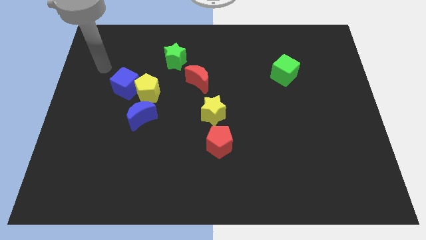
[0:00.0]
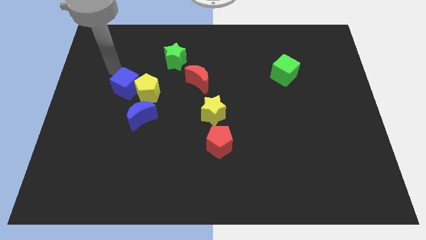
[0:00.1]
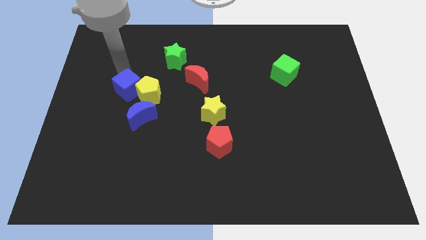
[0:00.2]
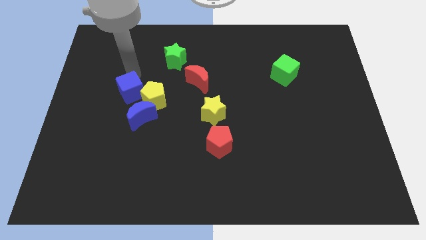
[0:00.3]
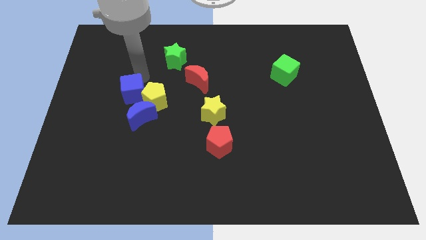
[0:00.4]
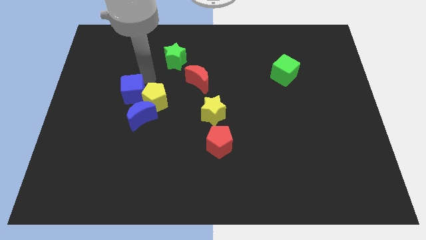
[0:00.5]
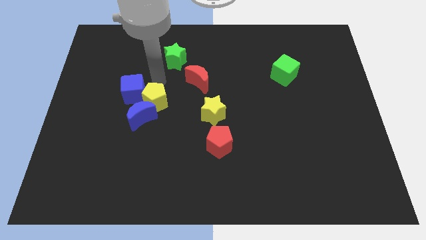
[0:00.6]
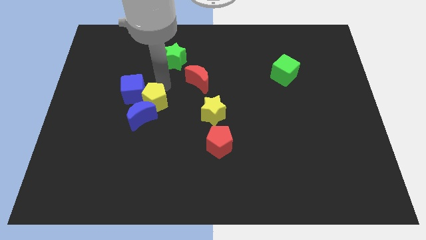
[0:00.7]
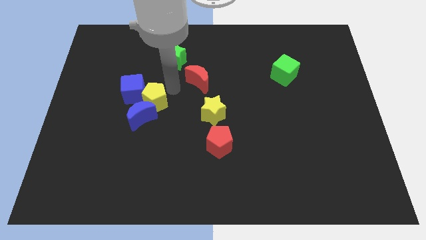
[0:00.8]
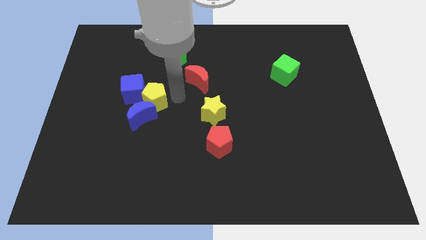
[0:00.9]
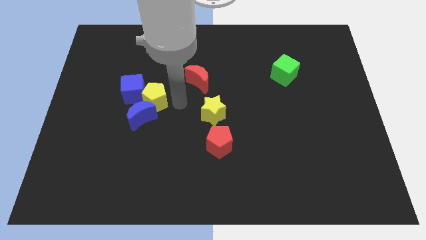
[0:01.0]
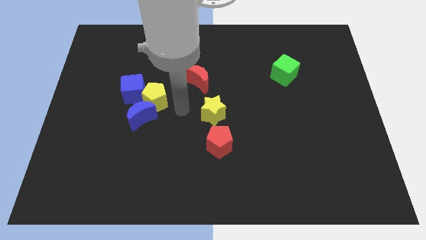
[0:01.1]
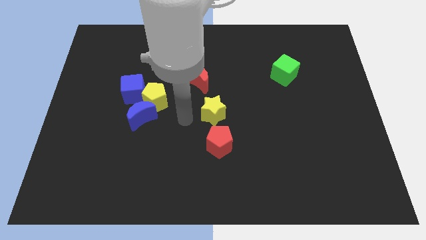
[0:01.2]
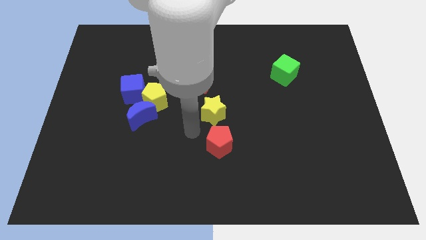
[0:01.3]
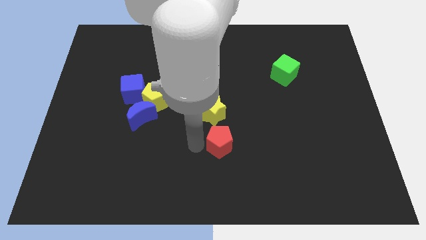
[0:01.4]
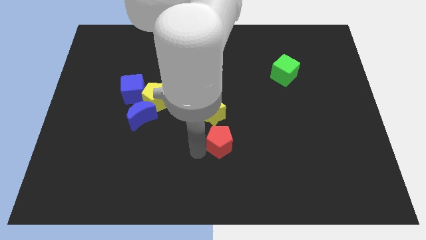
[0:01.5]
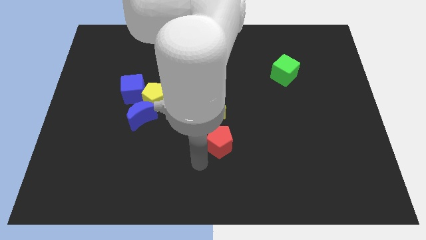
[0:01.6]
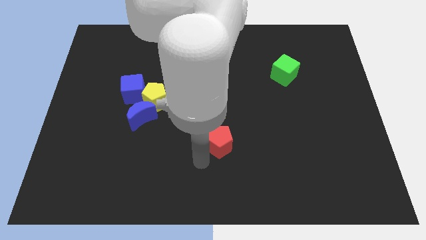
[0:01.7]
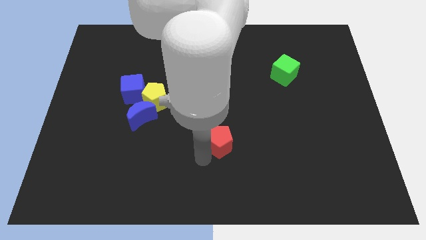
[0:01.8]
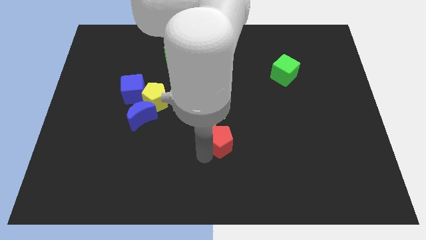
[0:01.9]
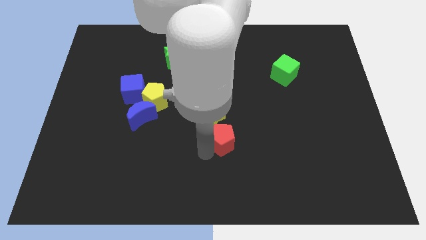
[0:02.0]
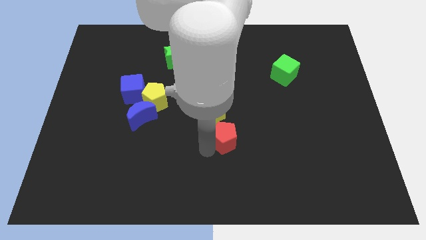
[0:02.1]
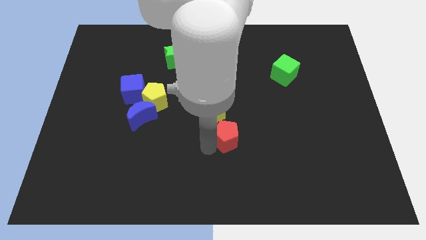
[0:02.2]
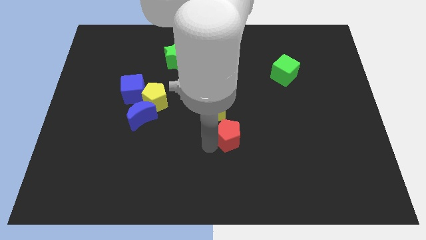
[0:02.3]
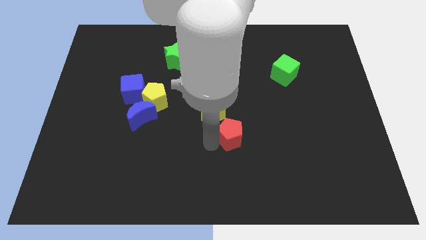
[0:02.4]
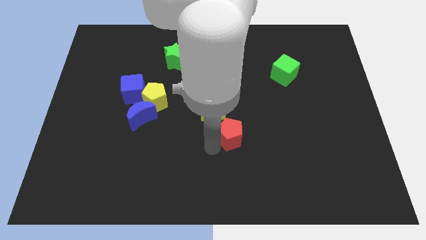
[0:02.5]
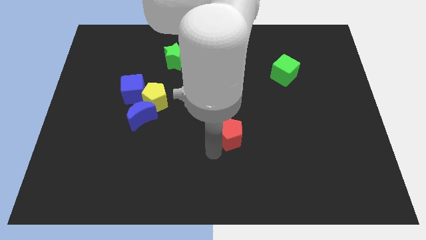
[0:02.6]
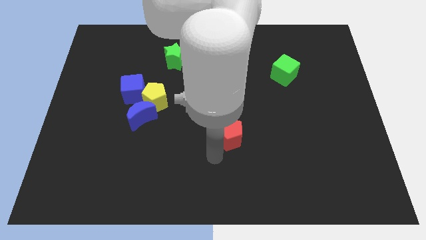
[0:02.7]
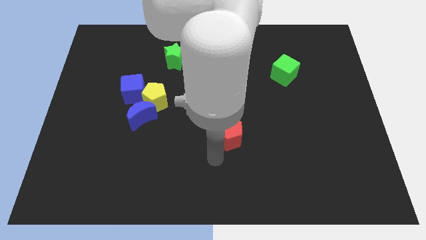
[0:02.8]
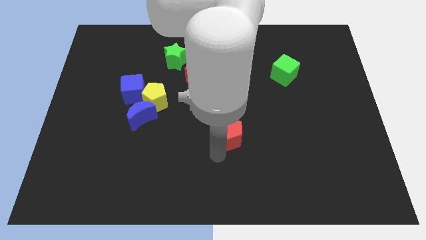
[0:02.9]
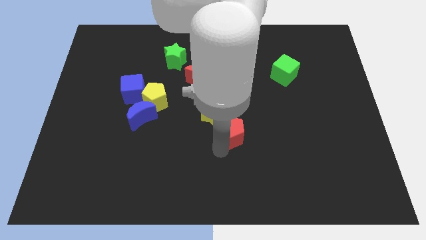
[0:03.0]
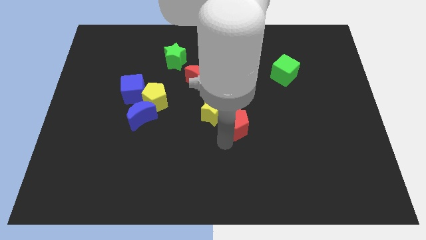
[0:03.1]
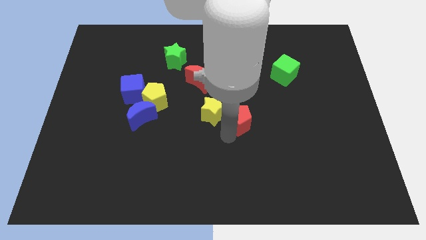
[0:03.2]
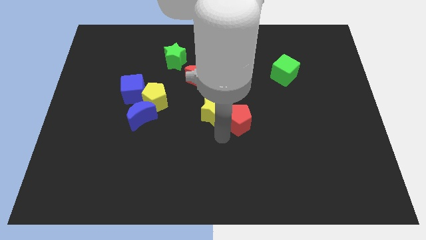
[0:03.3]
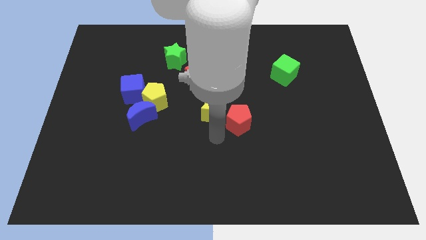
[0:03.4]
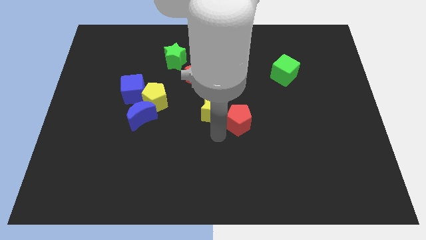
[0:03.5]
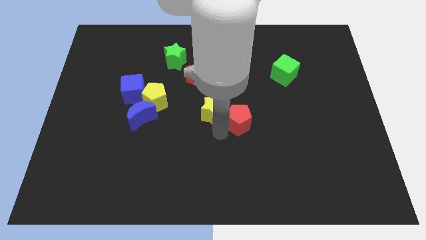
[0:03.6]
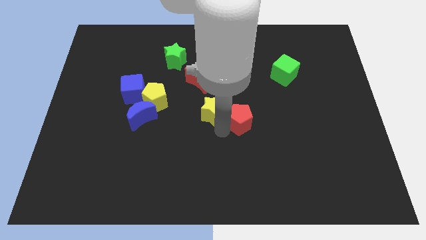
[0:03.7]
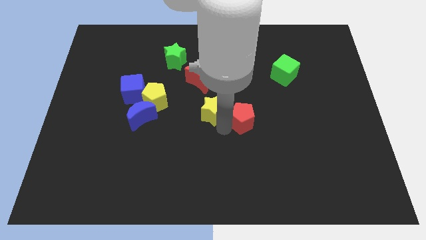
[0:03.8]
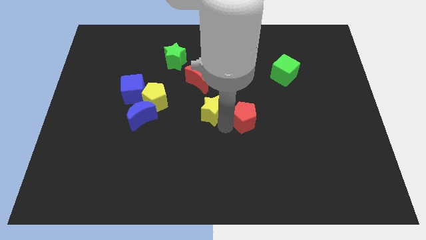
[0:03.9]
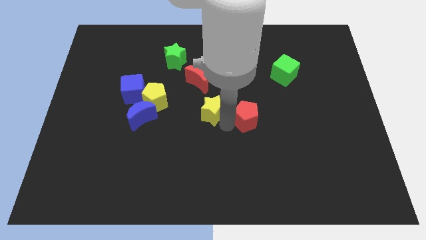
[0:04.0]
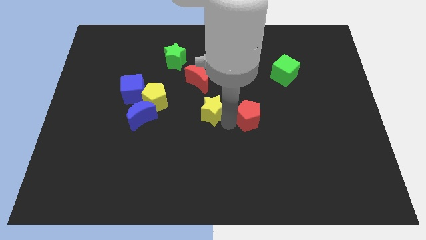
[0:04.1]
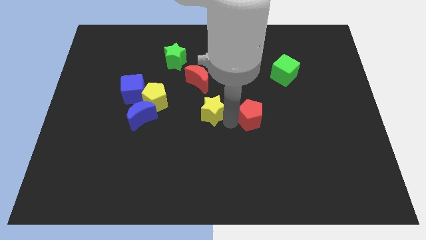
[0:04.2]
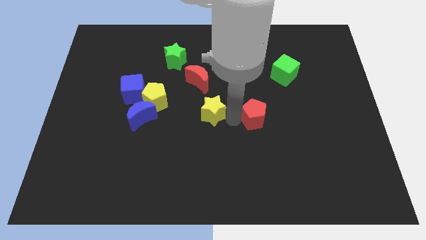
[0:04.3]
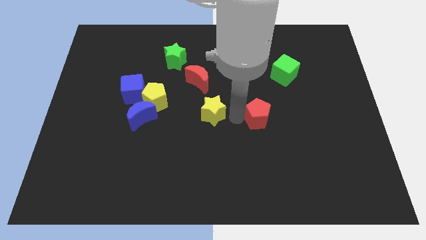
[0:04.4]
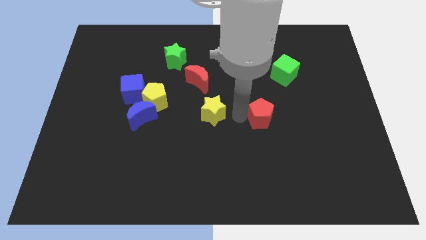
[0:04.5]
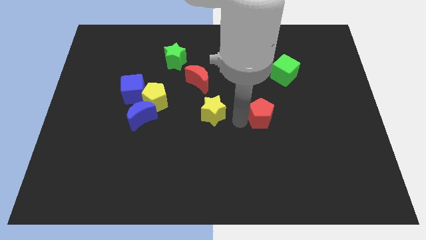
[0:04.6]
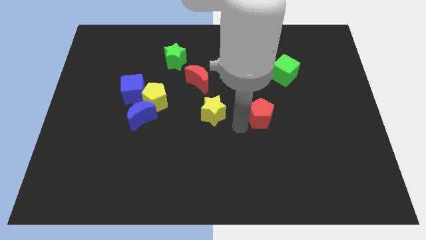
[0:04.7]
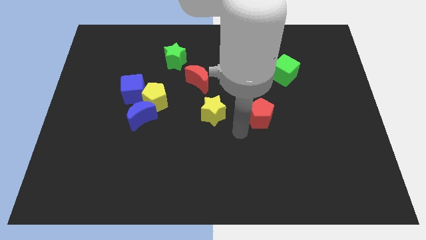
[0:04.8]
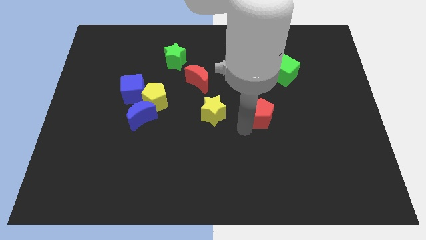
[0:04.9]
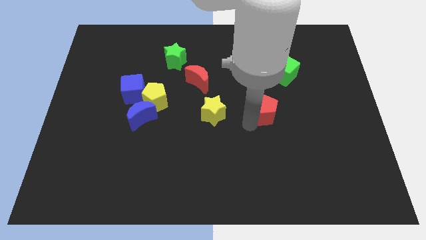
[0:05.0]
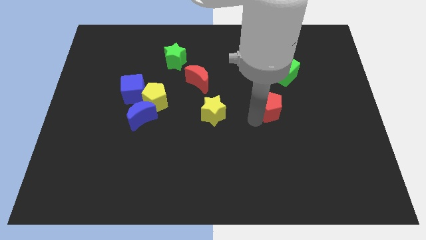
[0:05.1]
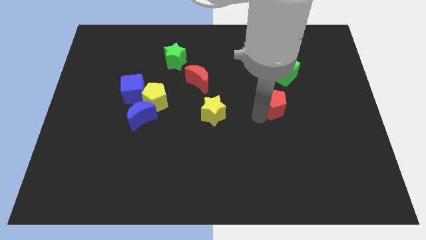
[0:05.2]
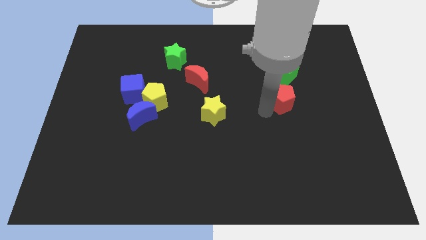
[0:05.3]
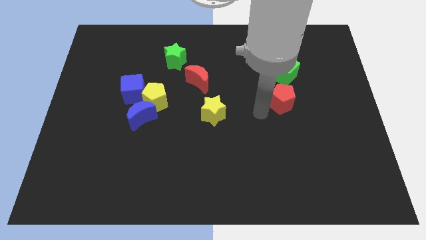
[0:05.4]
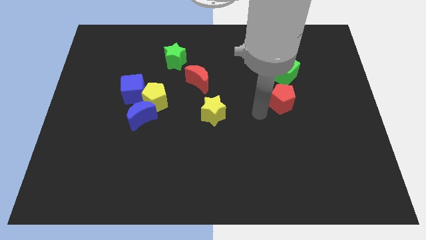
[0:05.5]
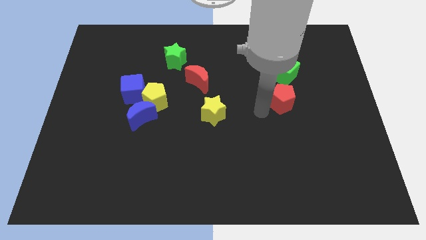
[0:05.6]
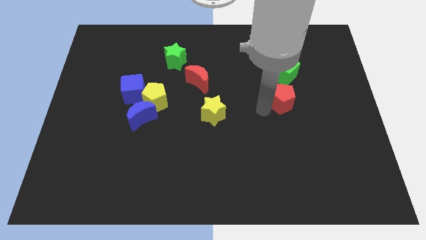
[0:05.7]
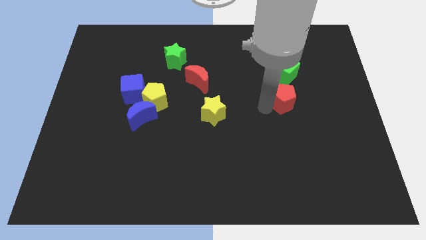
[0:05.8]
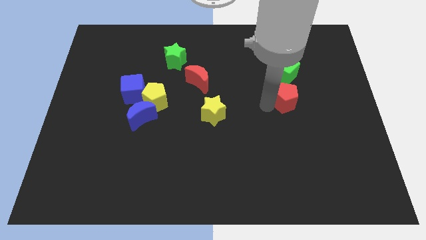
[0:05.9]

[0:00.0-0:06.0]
push the red pentagon diagonally up and to the right

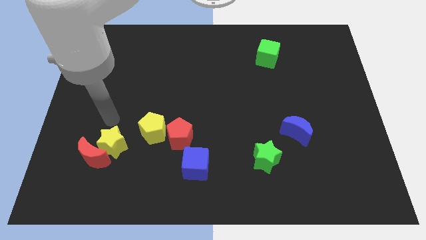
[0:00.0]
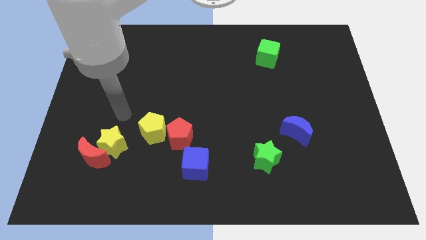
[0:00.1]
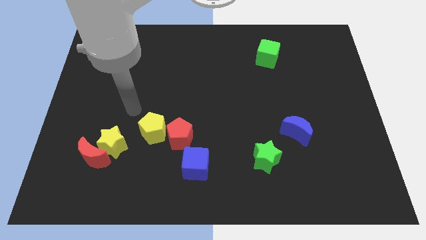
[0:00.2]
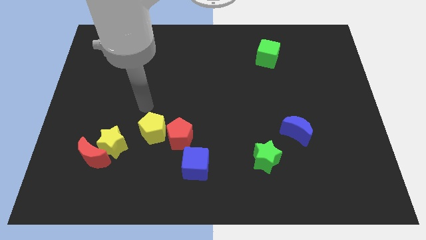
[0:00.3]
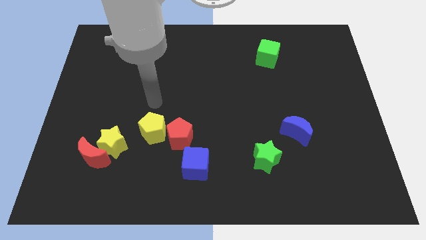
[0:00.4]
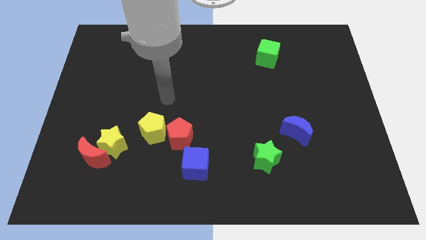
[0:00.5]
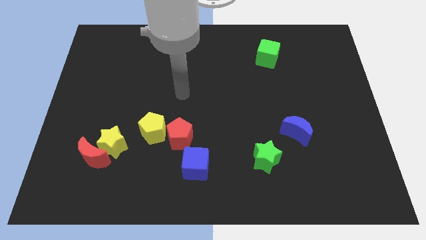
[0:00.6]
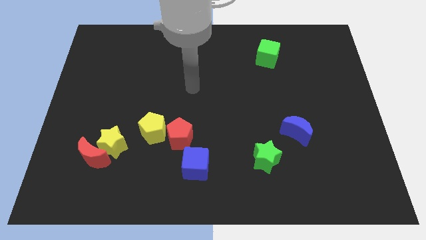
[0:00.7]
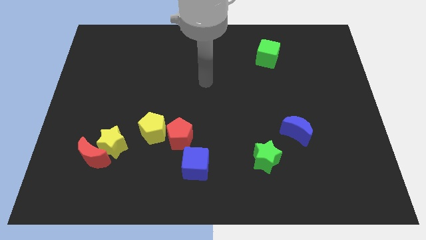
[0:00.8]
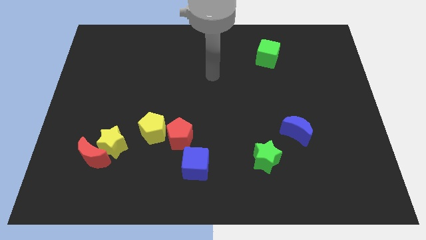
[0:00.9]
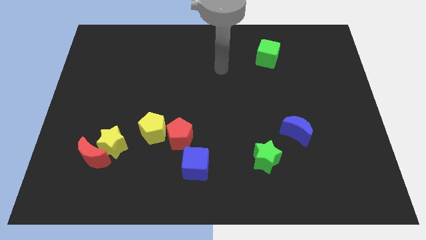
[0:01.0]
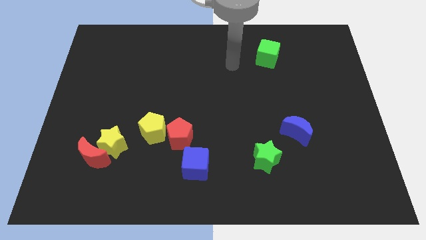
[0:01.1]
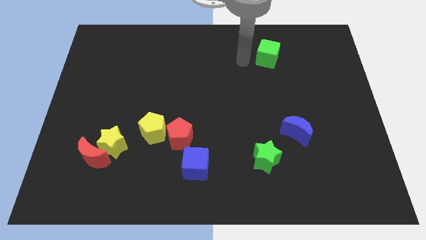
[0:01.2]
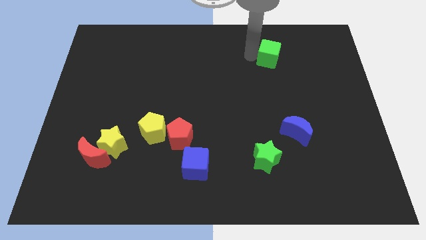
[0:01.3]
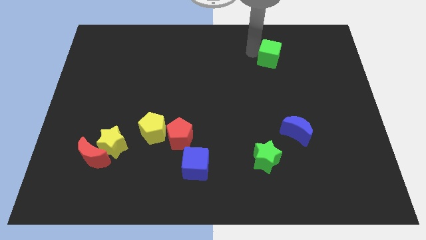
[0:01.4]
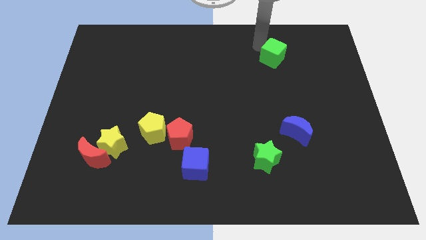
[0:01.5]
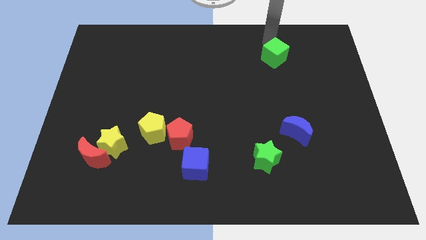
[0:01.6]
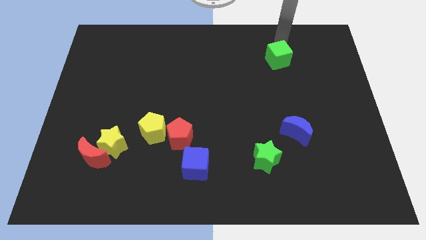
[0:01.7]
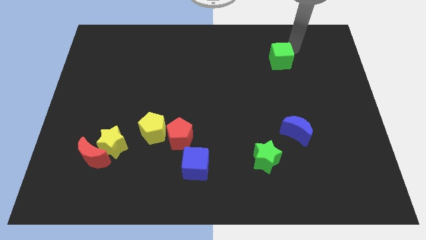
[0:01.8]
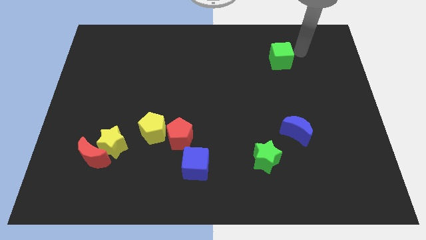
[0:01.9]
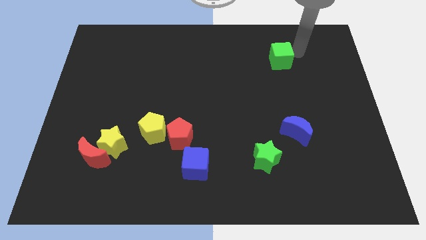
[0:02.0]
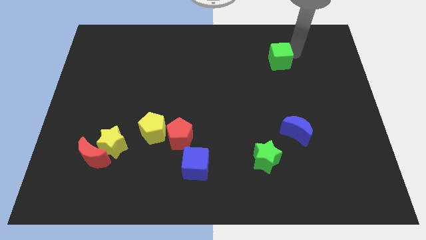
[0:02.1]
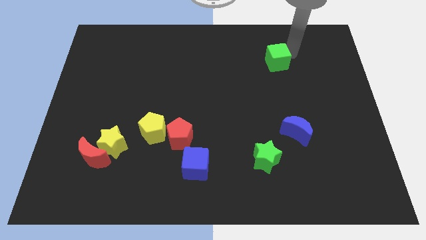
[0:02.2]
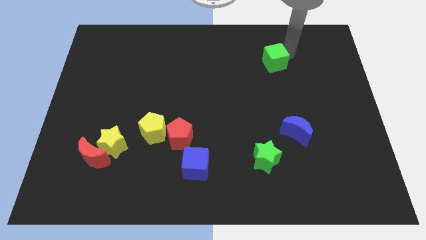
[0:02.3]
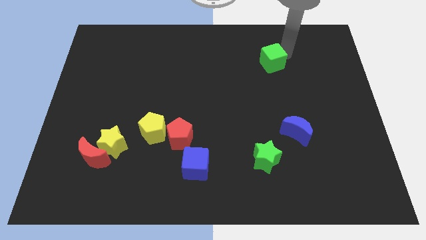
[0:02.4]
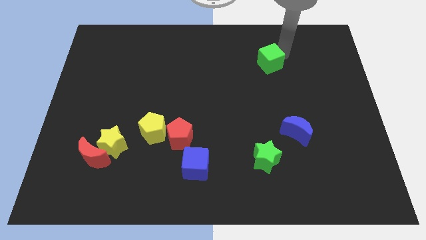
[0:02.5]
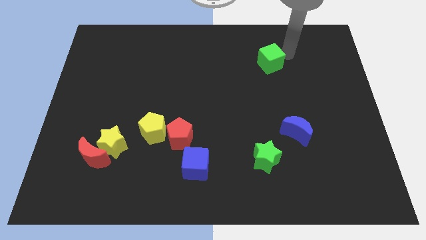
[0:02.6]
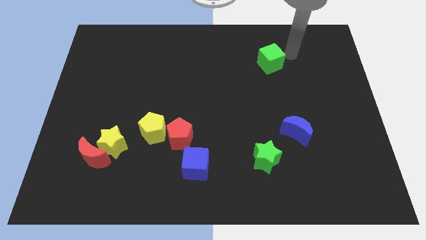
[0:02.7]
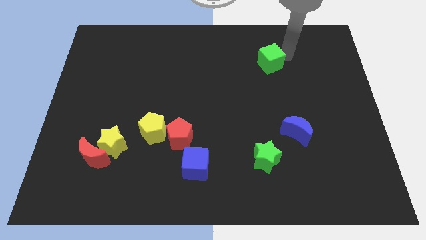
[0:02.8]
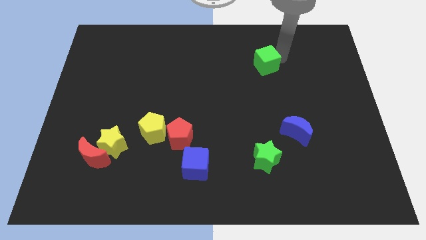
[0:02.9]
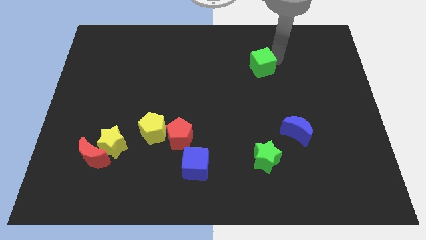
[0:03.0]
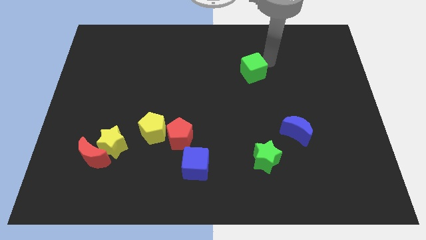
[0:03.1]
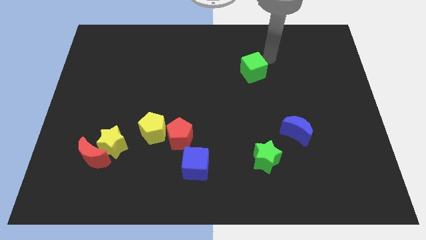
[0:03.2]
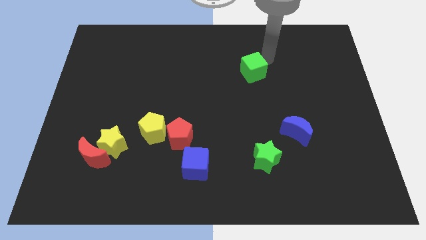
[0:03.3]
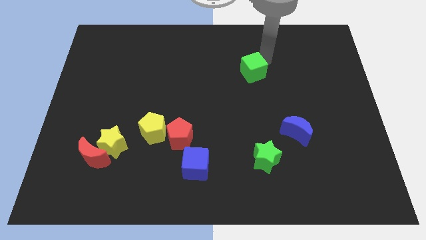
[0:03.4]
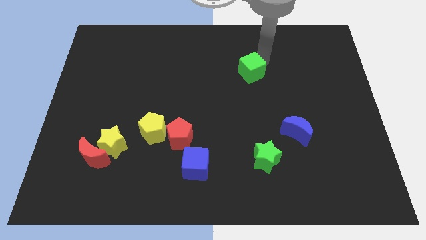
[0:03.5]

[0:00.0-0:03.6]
move the green cube somewhat downwards and left diagonally
